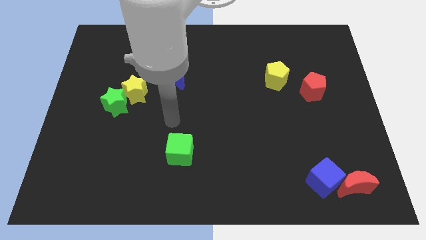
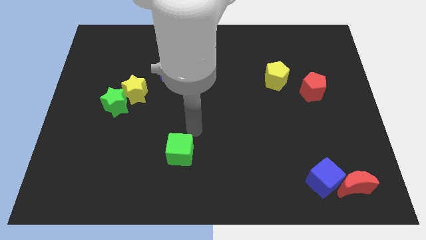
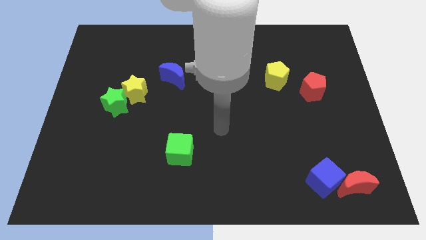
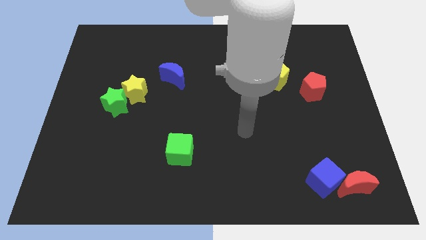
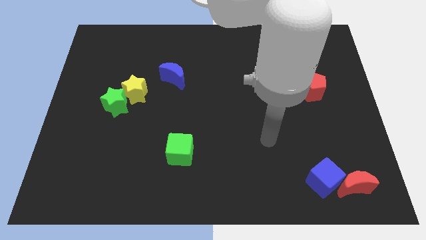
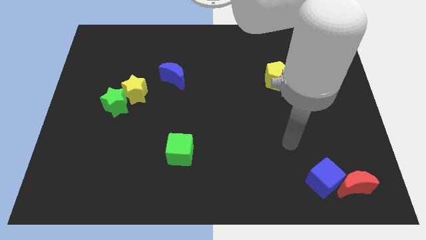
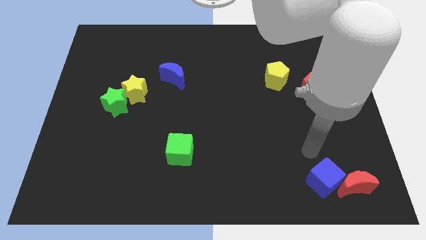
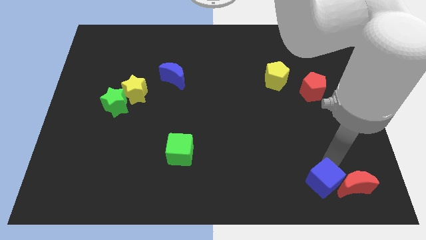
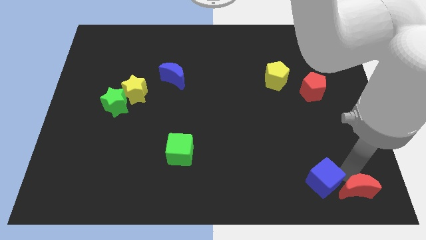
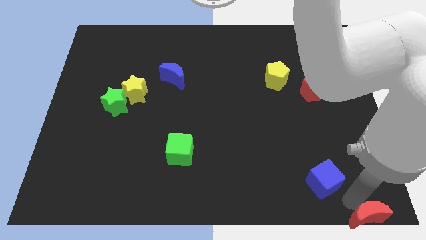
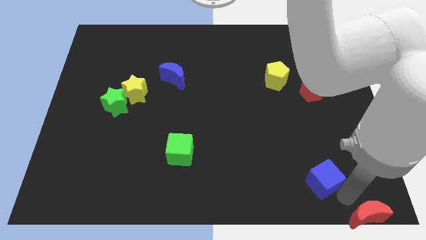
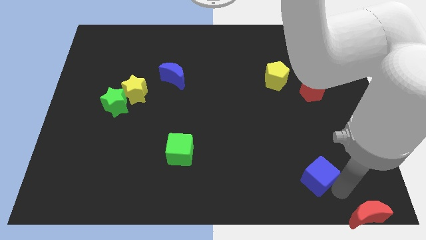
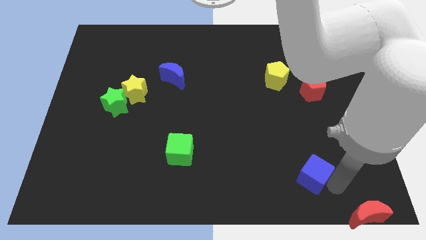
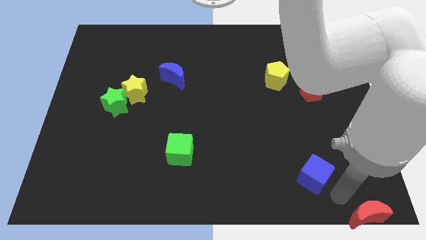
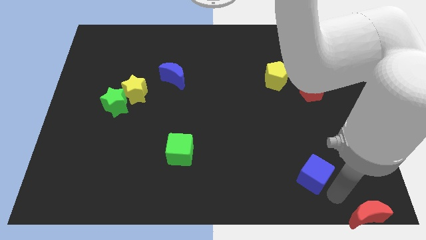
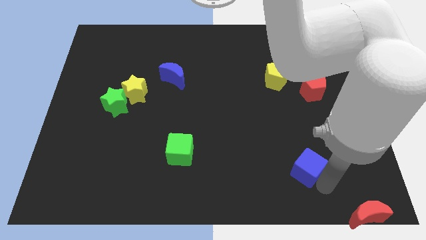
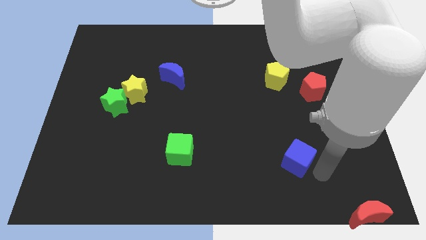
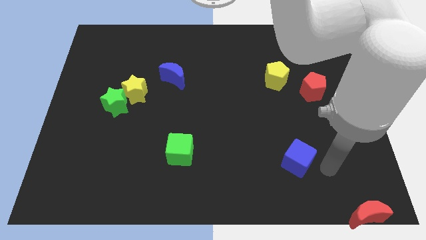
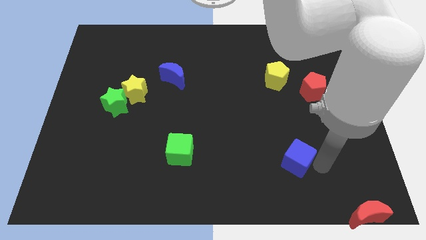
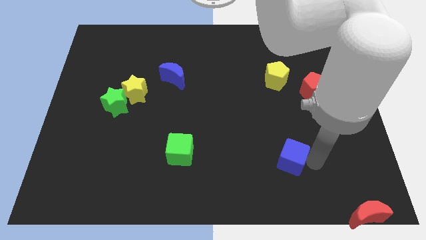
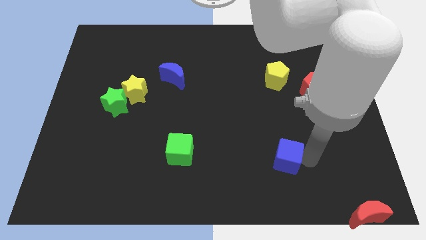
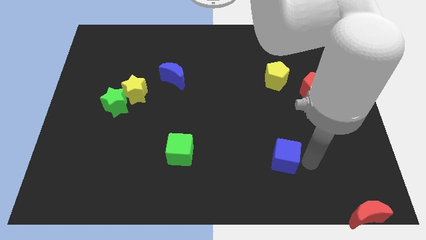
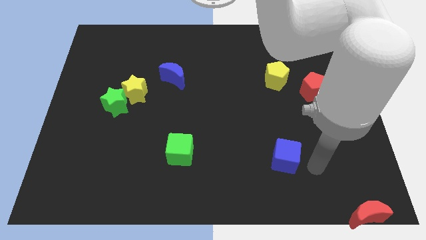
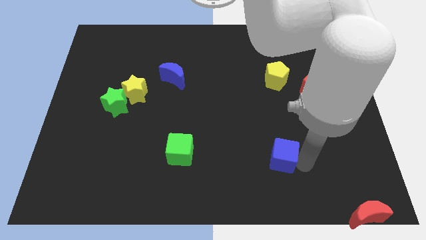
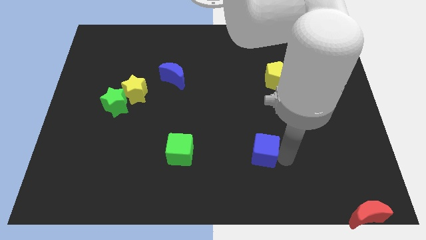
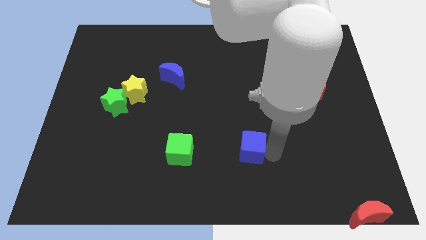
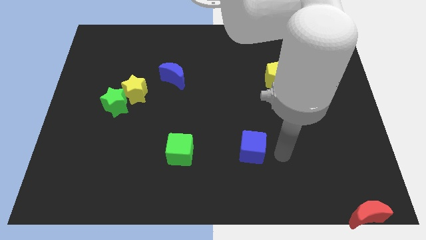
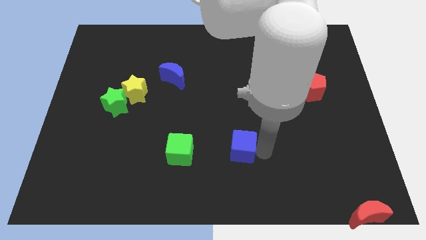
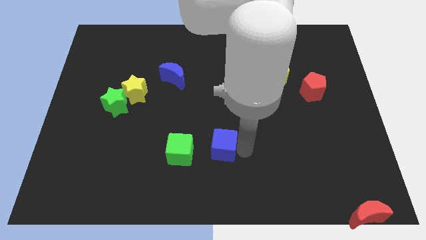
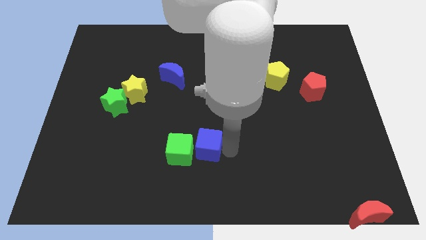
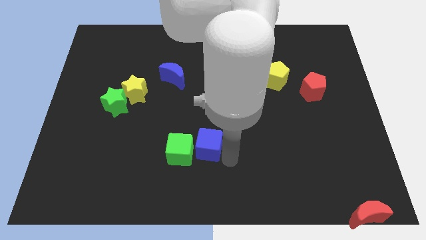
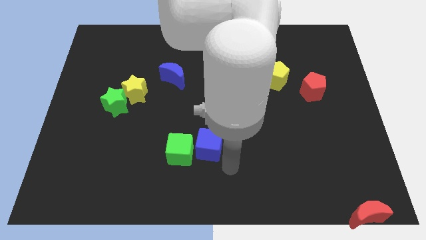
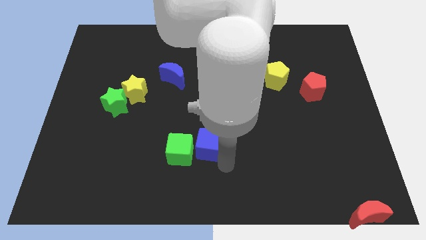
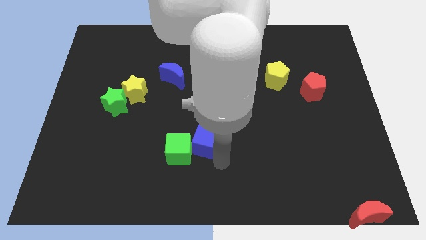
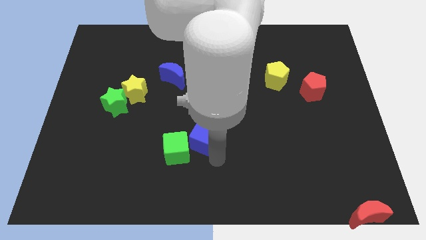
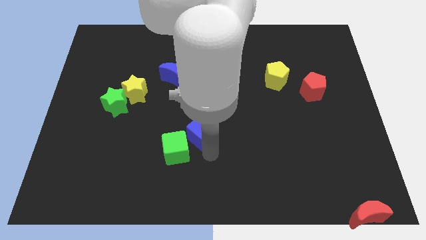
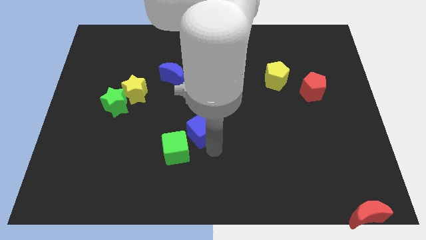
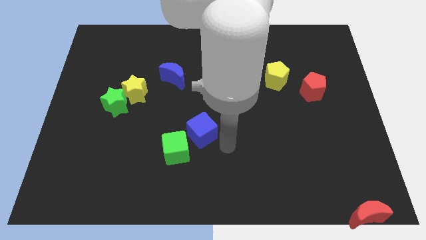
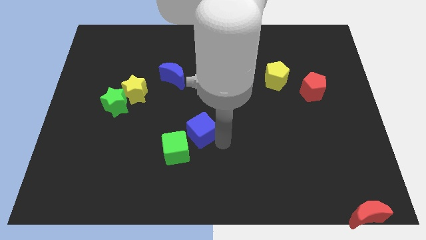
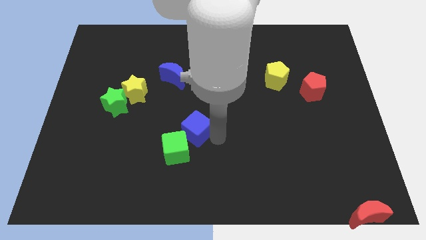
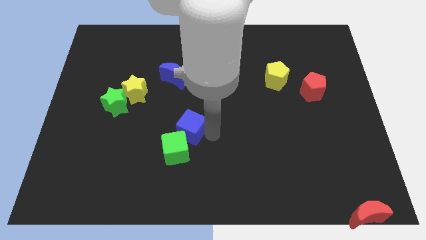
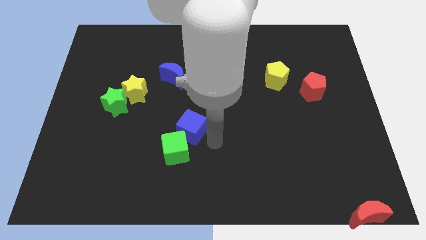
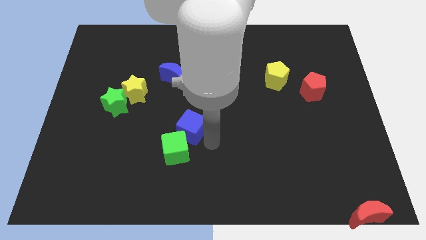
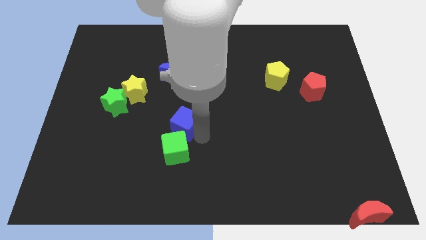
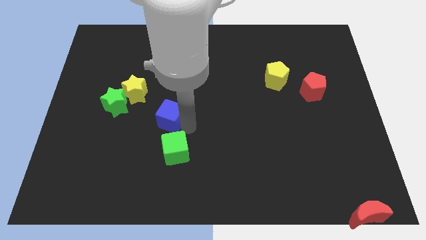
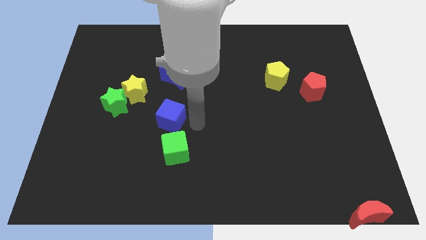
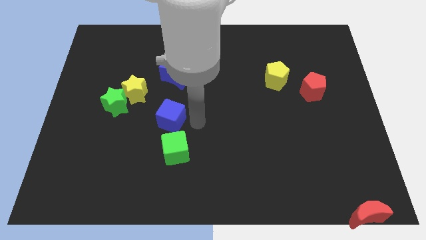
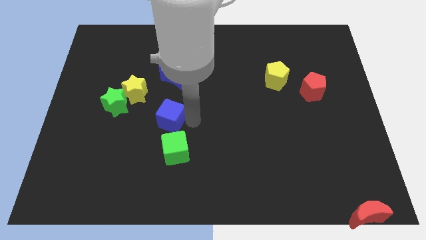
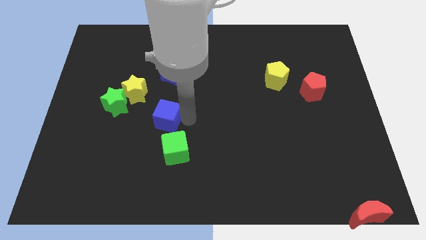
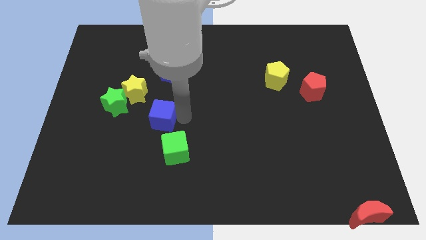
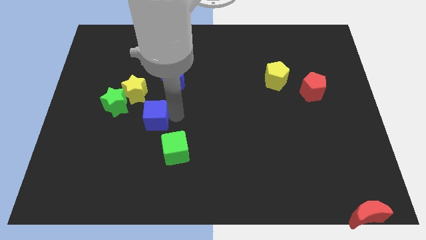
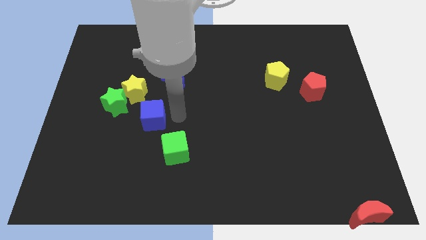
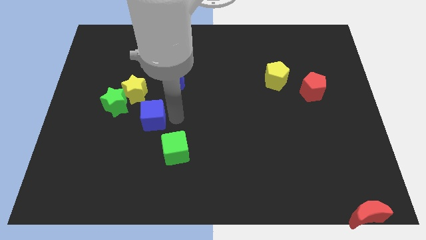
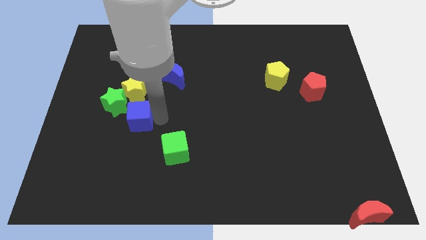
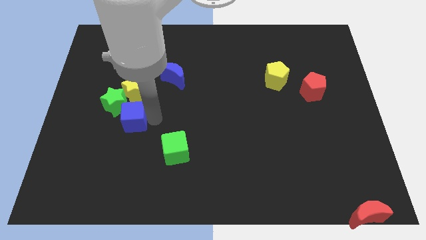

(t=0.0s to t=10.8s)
put the blue cube to the green star

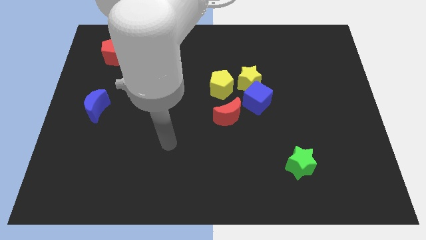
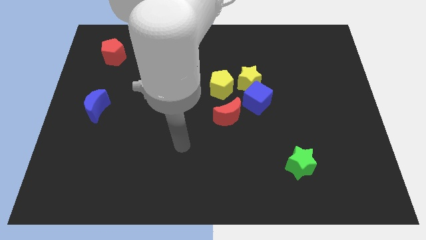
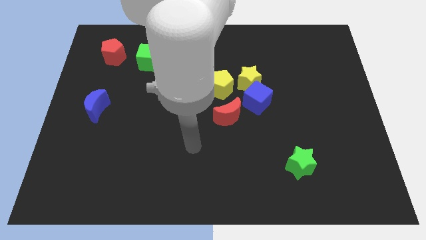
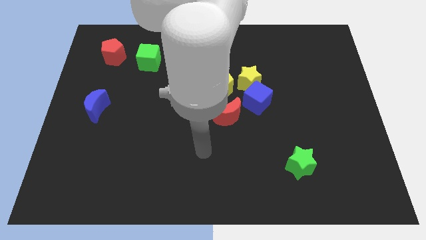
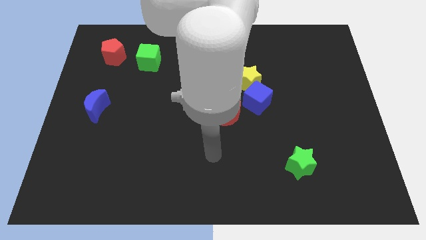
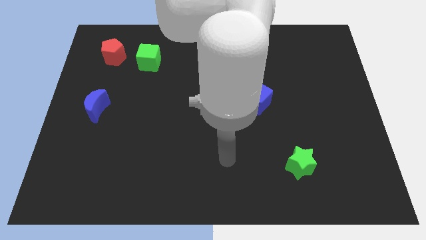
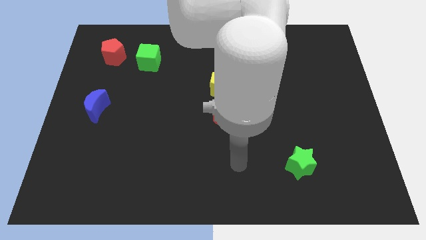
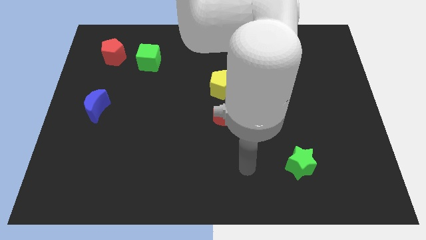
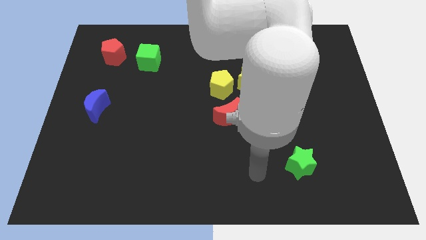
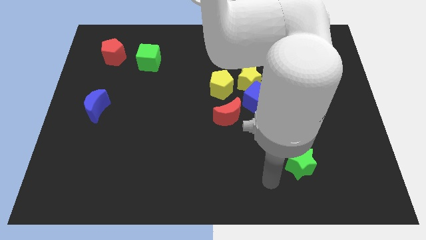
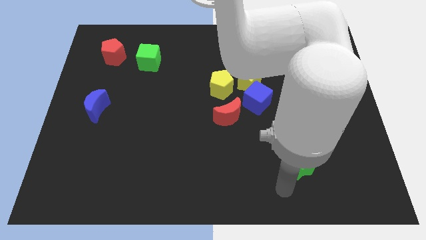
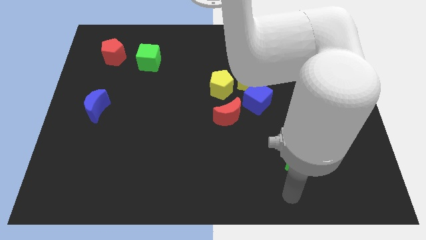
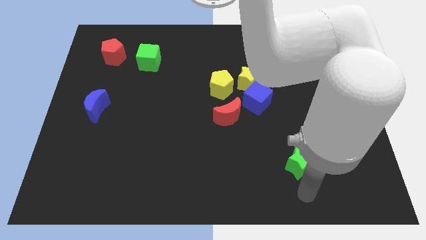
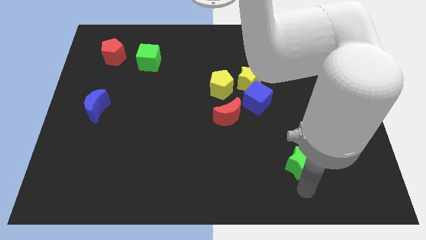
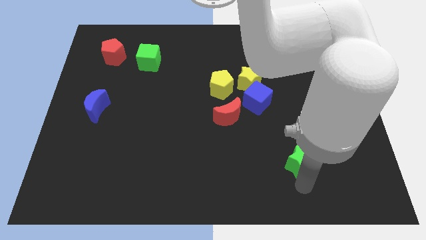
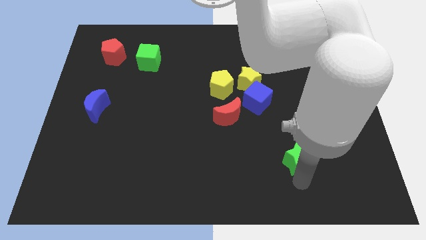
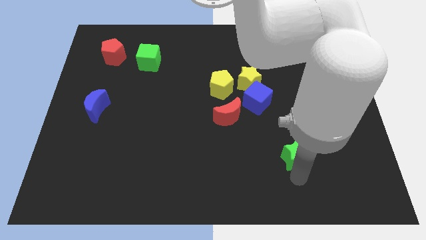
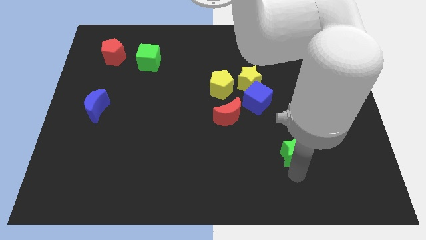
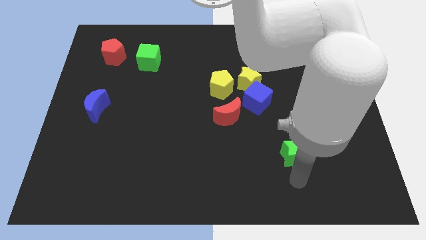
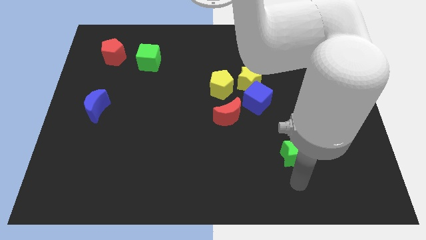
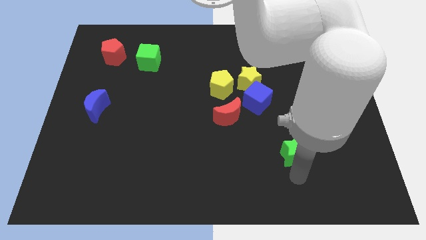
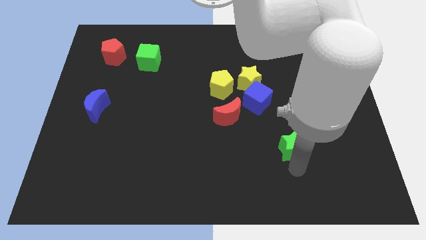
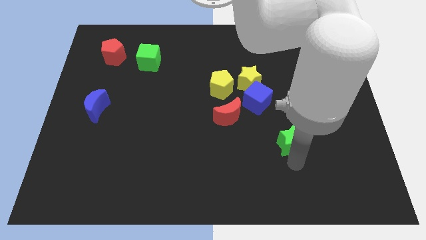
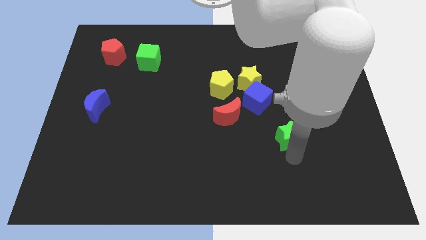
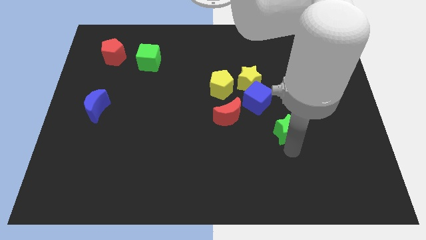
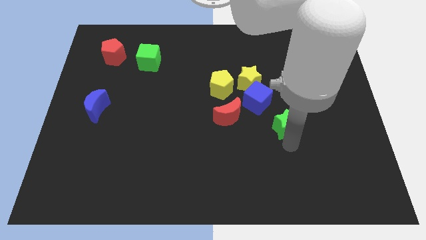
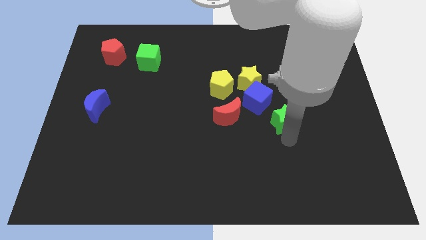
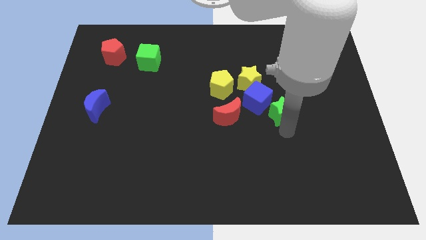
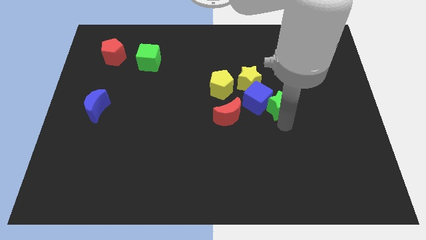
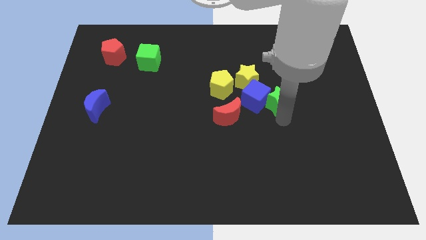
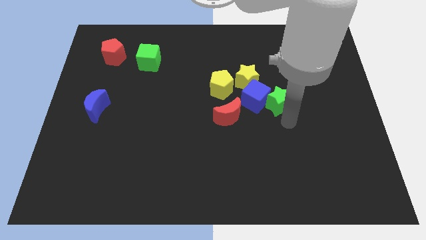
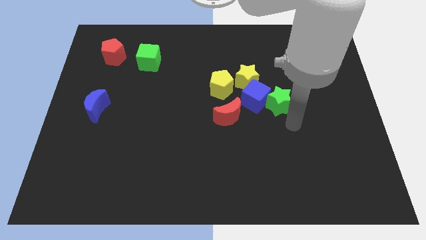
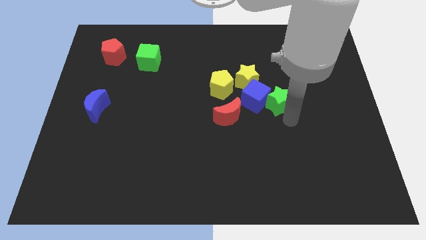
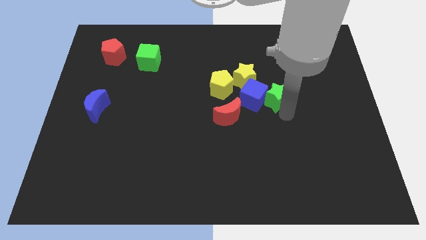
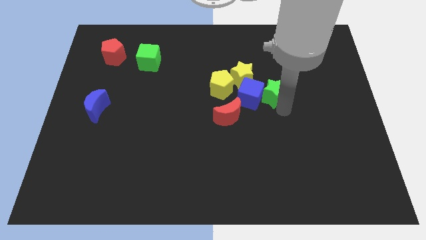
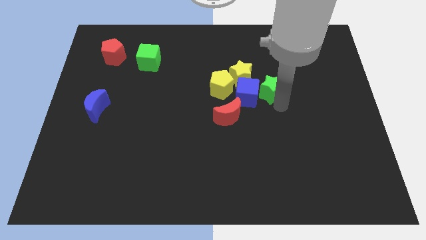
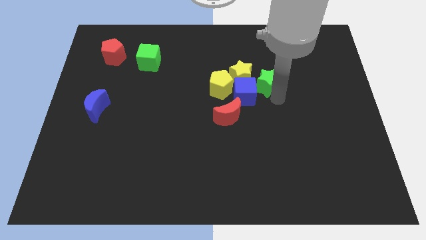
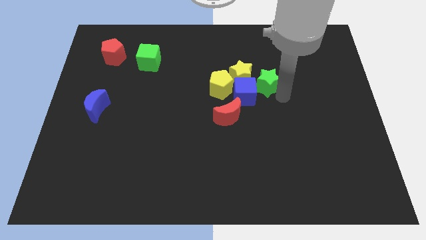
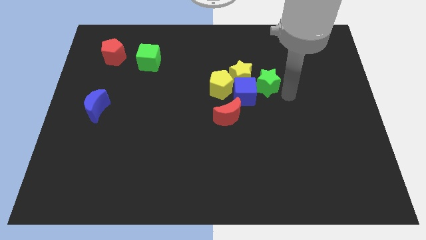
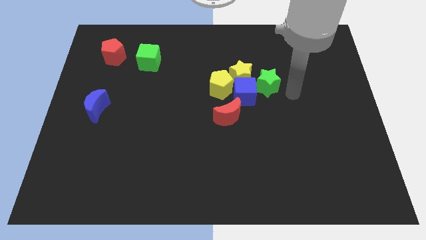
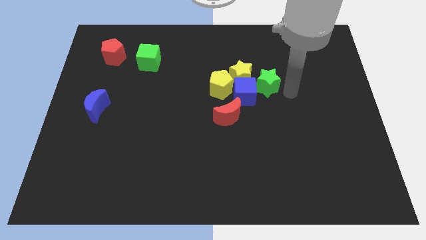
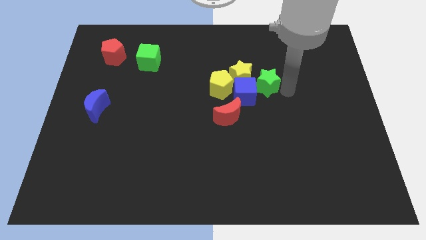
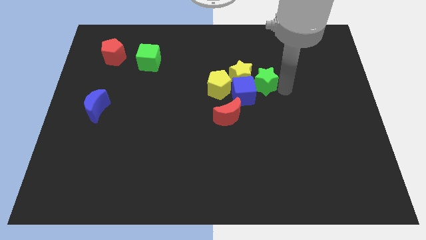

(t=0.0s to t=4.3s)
slide the green star to the yellow star
